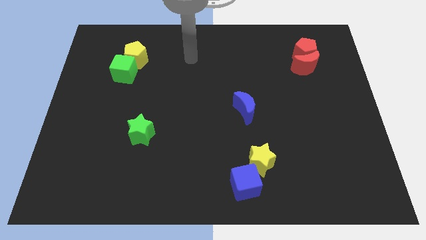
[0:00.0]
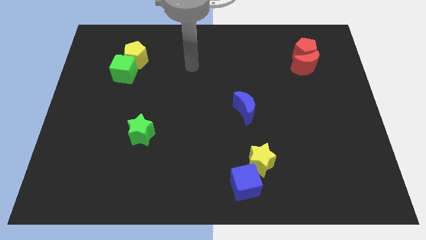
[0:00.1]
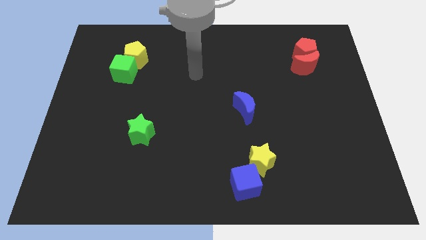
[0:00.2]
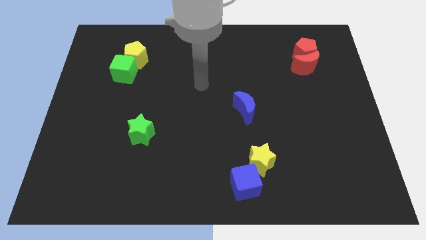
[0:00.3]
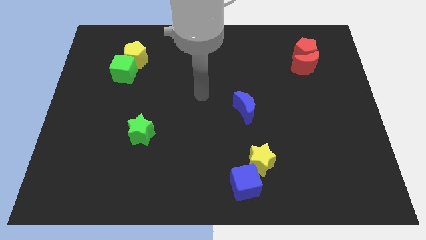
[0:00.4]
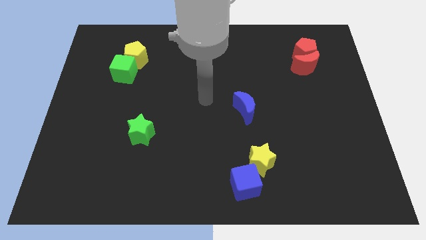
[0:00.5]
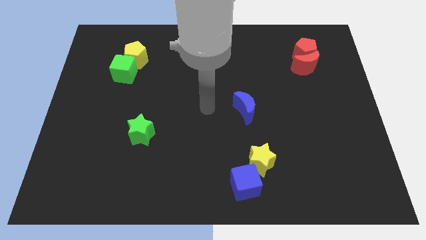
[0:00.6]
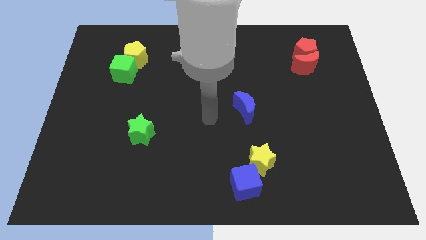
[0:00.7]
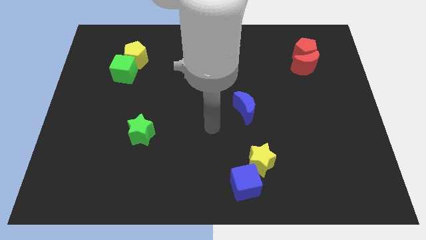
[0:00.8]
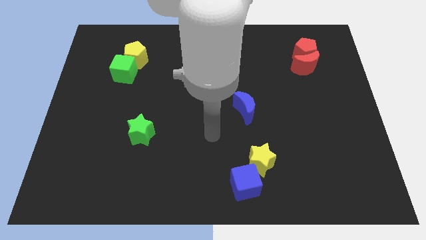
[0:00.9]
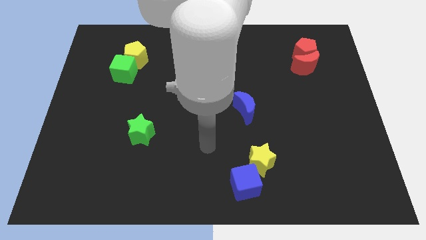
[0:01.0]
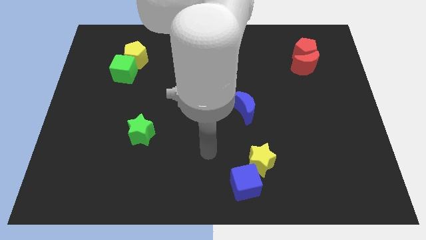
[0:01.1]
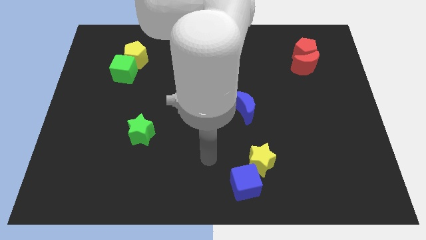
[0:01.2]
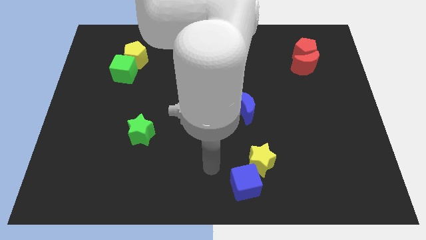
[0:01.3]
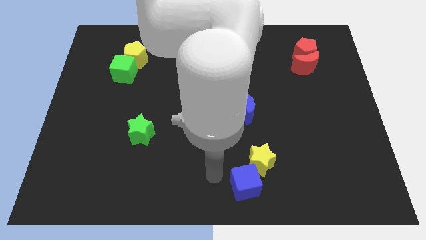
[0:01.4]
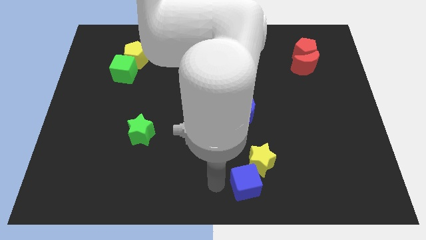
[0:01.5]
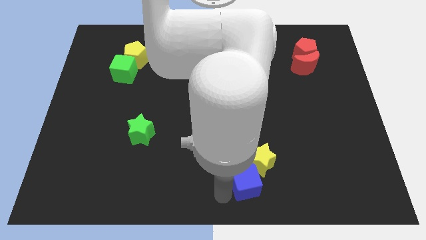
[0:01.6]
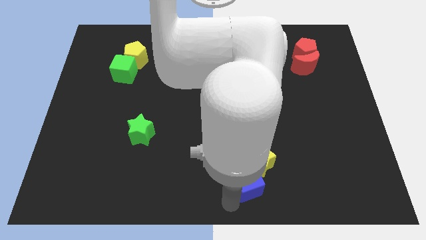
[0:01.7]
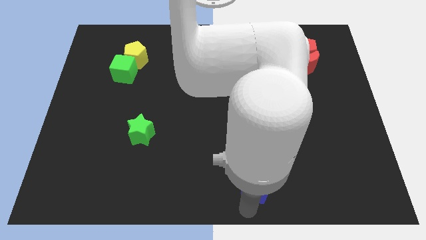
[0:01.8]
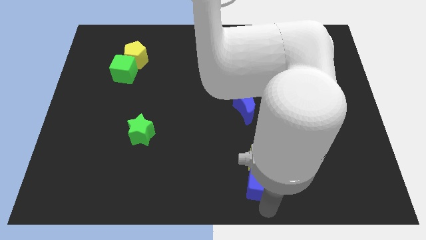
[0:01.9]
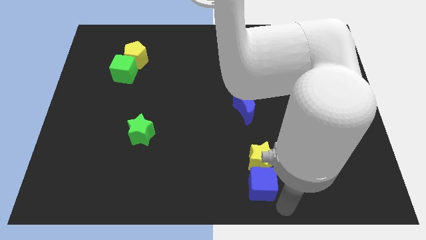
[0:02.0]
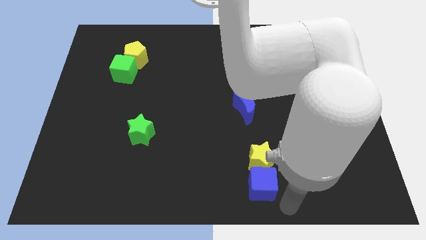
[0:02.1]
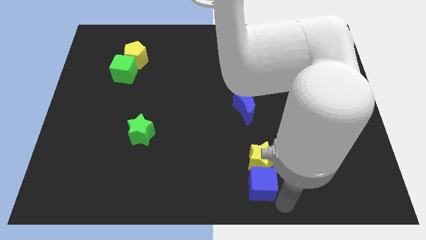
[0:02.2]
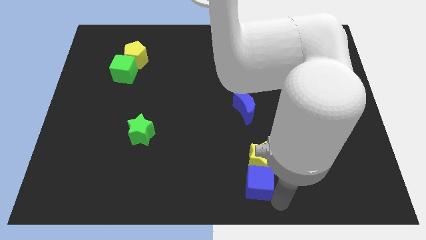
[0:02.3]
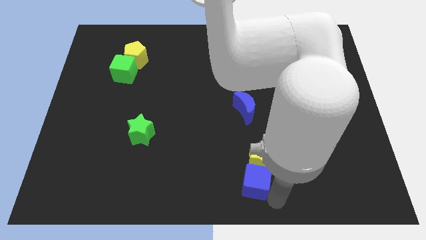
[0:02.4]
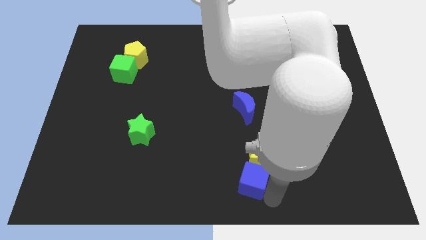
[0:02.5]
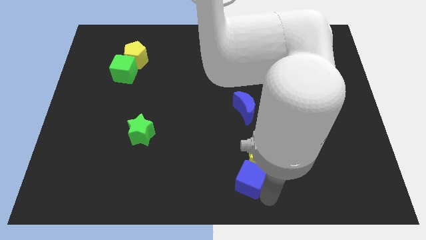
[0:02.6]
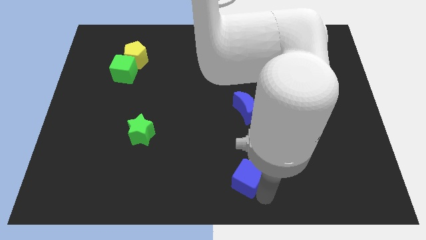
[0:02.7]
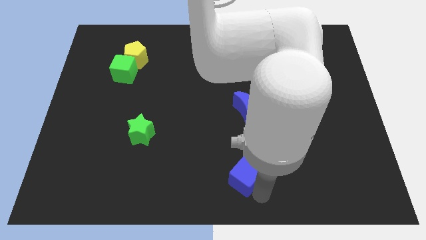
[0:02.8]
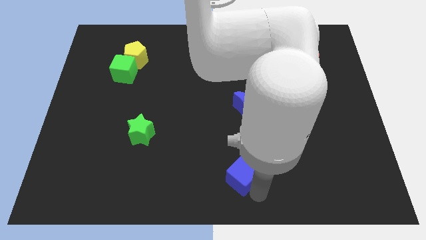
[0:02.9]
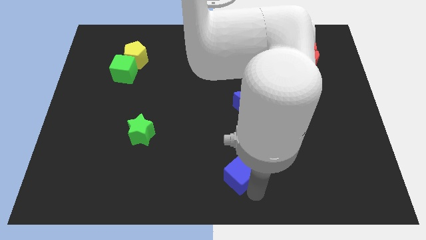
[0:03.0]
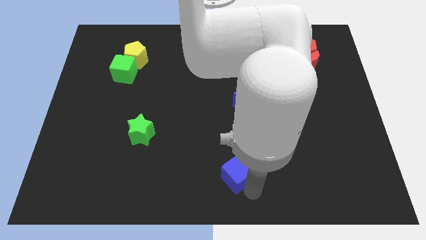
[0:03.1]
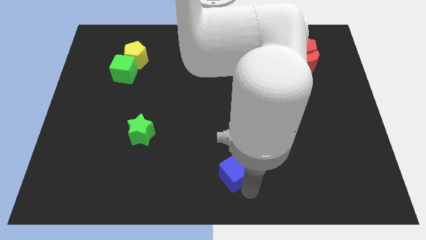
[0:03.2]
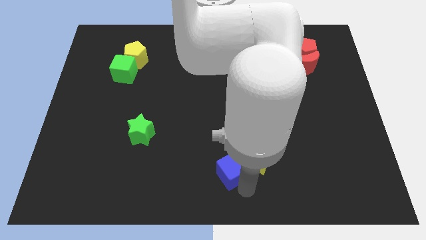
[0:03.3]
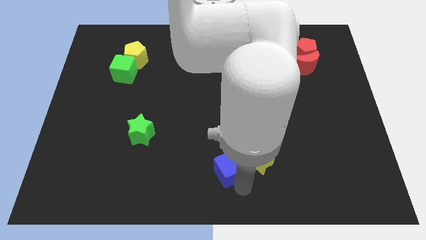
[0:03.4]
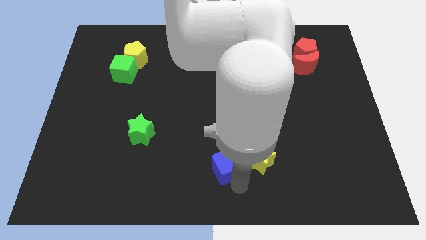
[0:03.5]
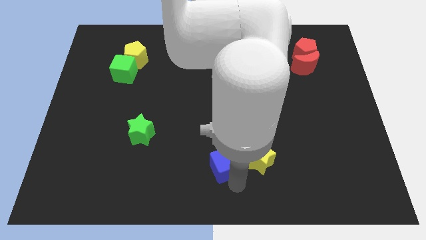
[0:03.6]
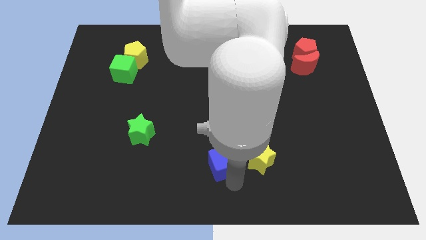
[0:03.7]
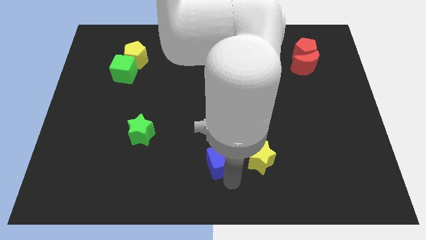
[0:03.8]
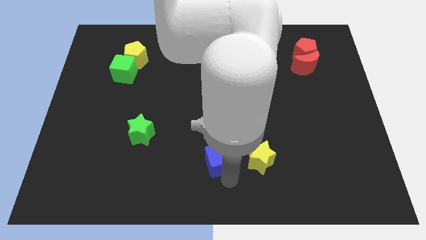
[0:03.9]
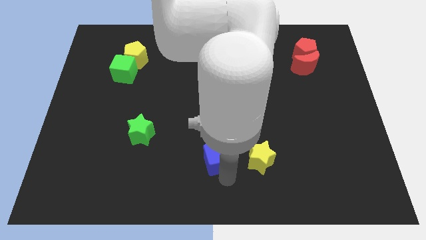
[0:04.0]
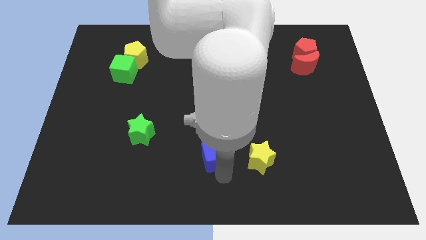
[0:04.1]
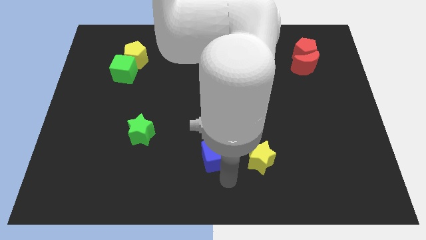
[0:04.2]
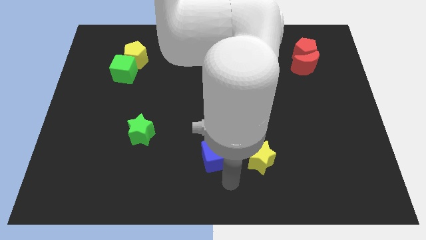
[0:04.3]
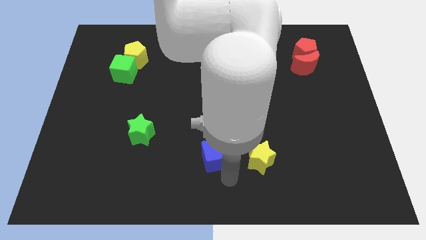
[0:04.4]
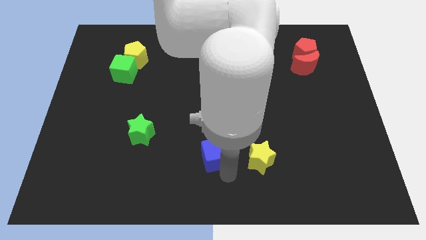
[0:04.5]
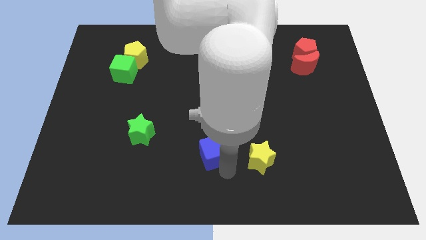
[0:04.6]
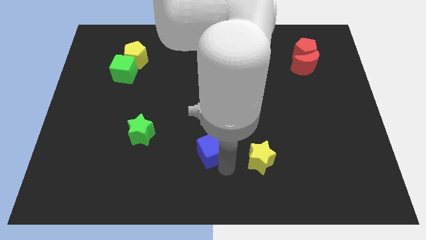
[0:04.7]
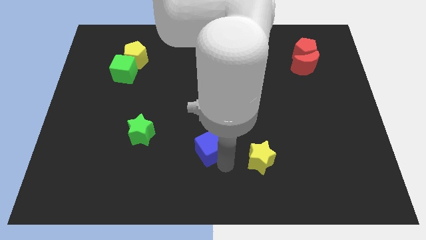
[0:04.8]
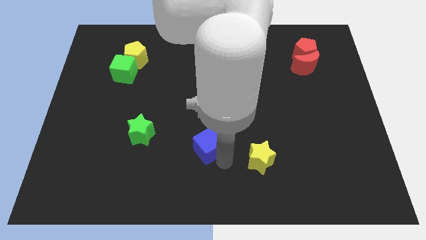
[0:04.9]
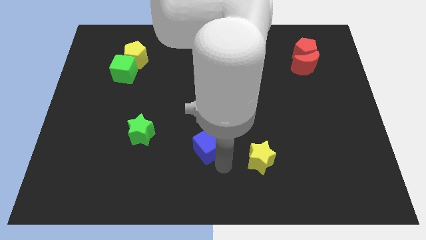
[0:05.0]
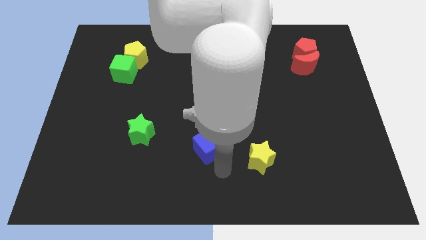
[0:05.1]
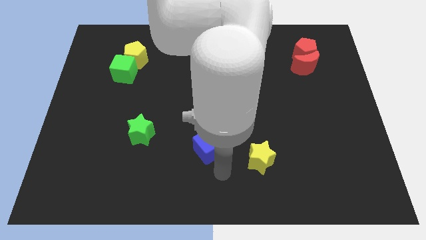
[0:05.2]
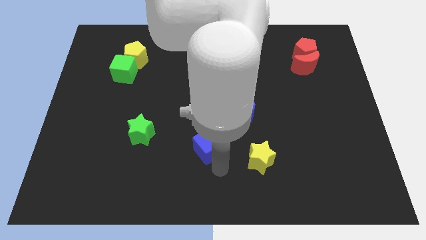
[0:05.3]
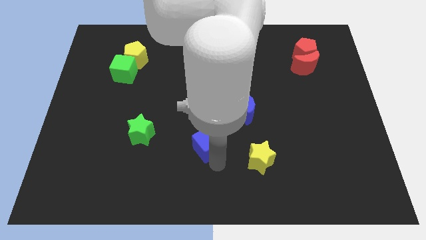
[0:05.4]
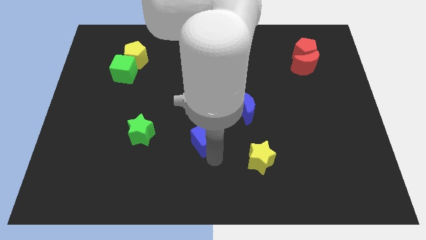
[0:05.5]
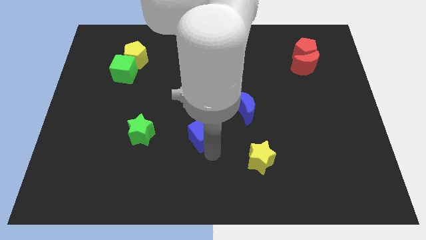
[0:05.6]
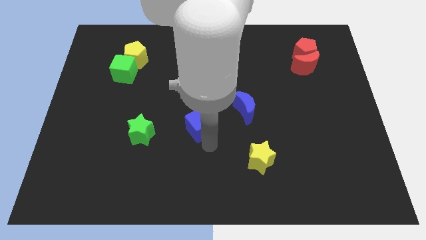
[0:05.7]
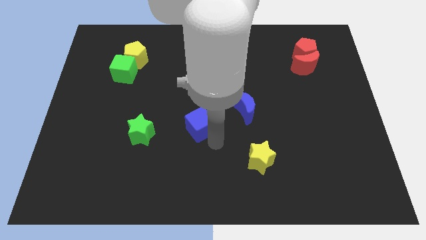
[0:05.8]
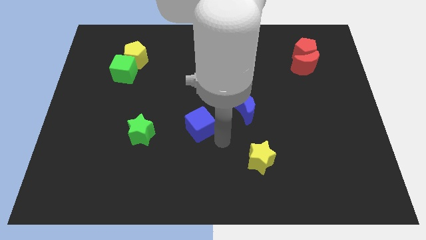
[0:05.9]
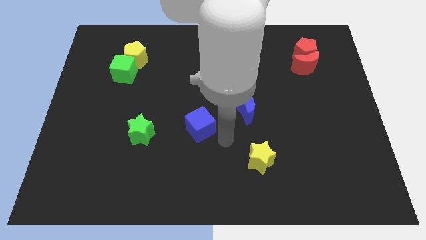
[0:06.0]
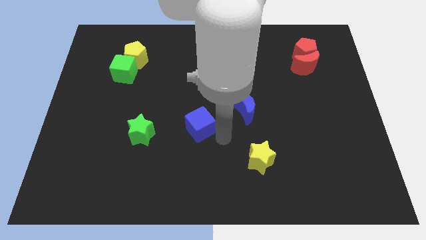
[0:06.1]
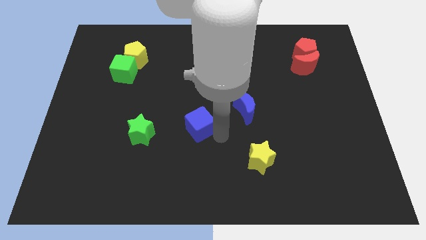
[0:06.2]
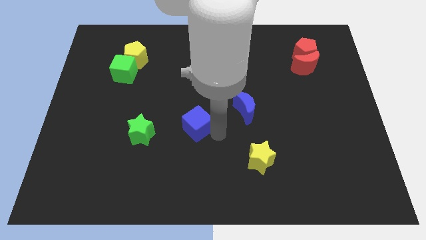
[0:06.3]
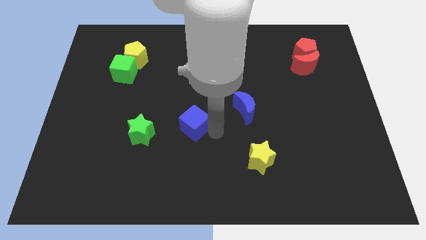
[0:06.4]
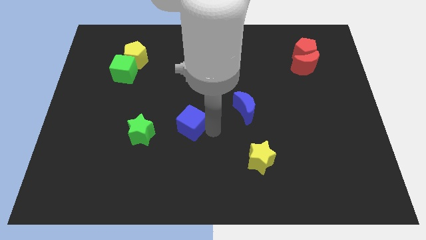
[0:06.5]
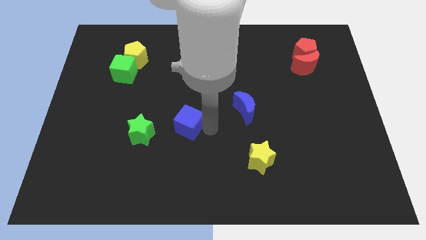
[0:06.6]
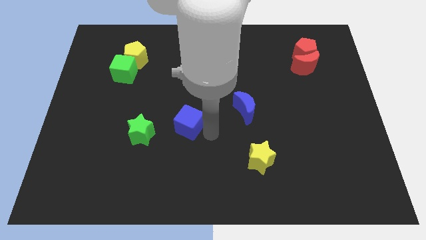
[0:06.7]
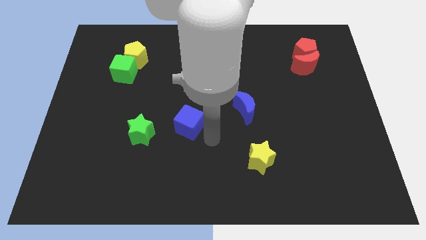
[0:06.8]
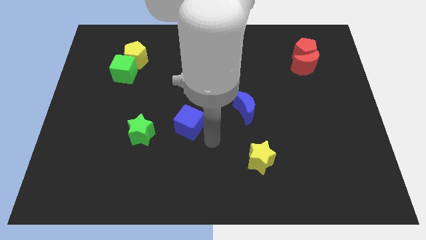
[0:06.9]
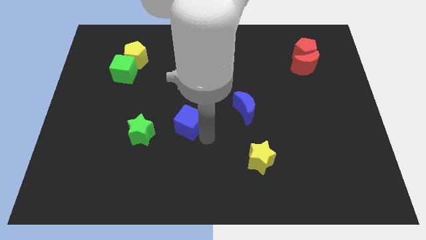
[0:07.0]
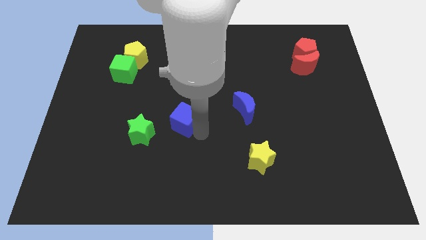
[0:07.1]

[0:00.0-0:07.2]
move the blue cube up and to the left diagonally

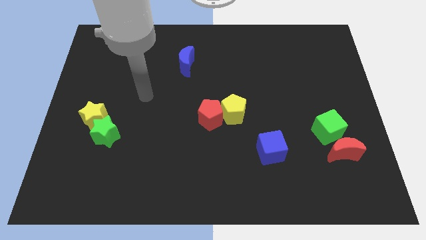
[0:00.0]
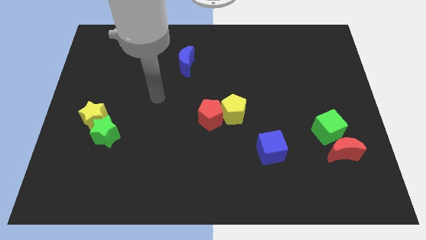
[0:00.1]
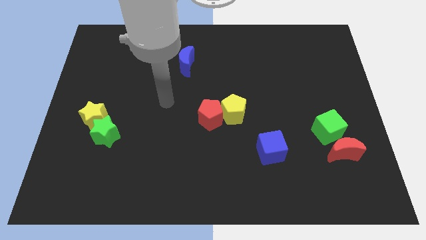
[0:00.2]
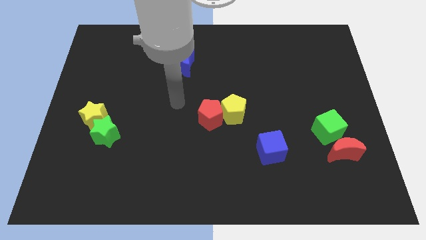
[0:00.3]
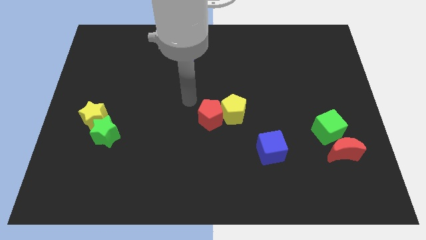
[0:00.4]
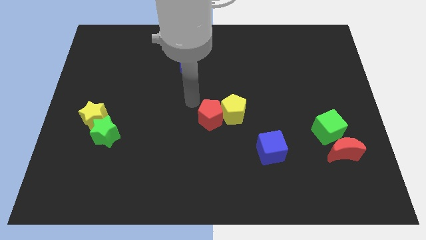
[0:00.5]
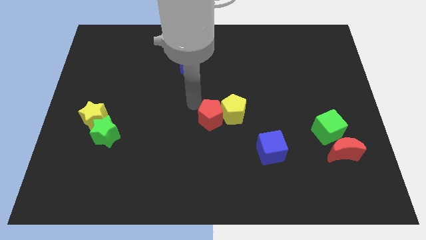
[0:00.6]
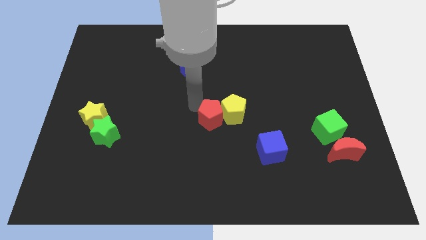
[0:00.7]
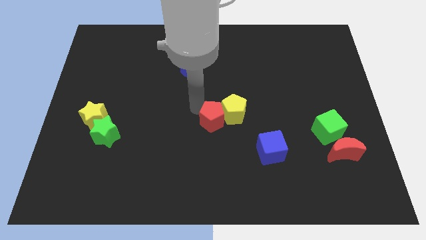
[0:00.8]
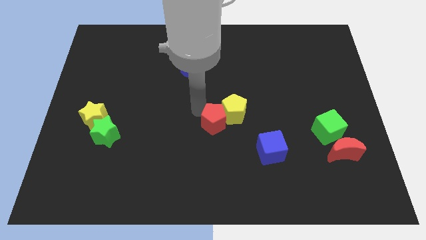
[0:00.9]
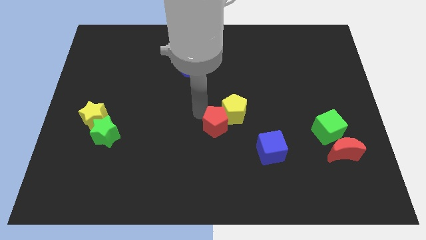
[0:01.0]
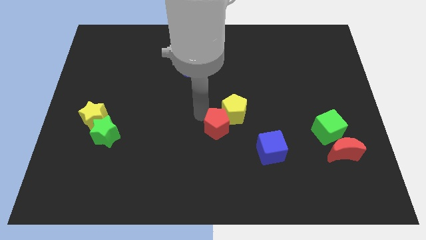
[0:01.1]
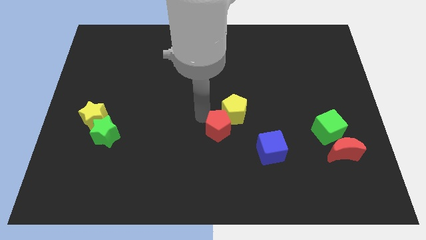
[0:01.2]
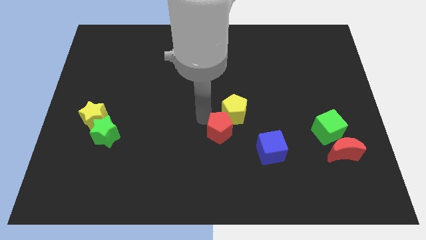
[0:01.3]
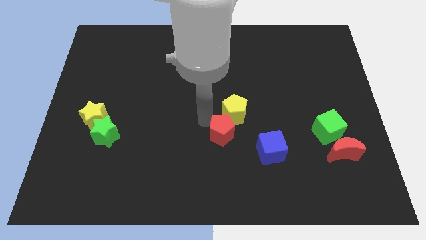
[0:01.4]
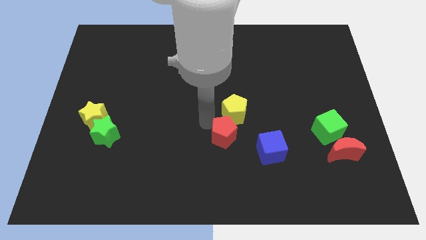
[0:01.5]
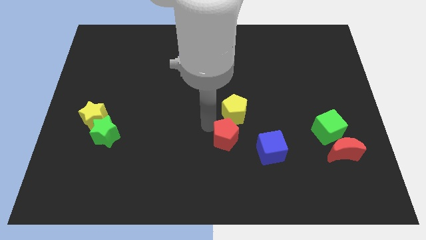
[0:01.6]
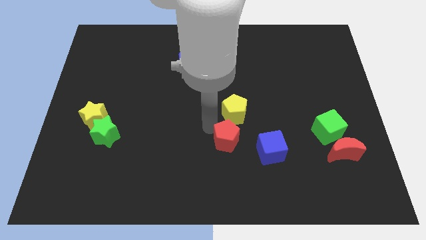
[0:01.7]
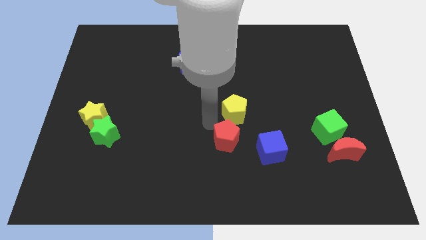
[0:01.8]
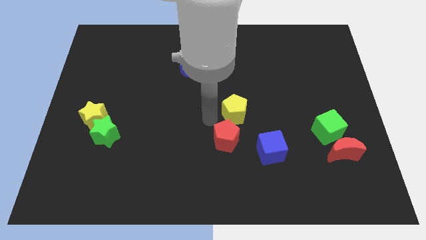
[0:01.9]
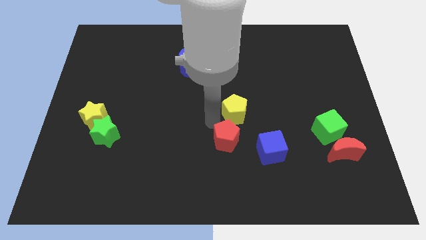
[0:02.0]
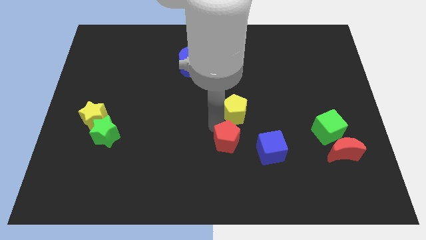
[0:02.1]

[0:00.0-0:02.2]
slide the red pentagon a little downwards and to the right
